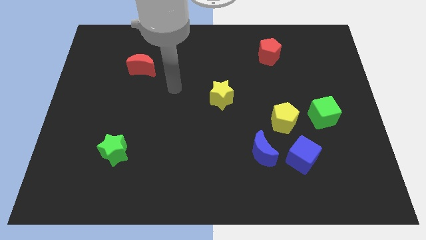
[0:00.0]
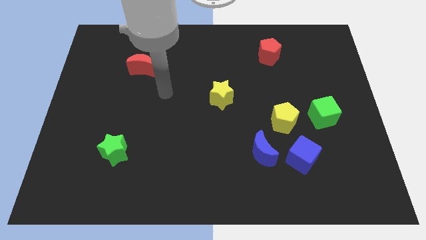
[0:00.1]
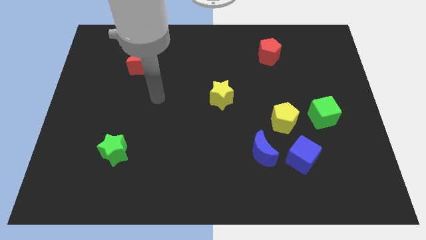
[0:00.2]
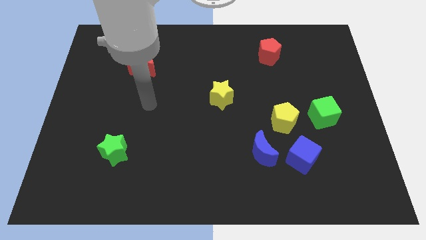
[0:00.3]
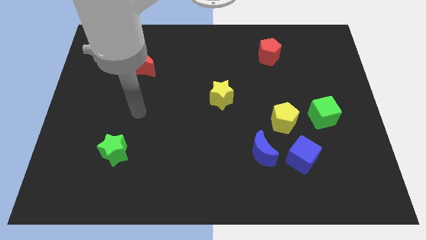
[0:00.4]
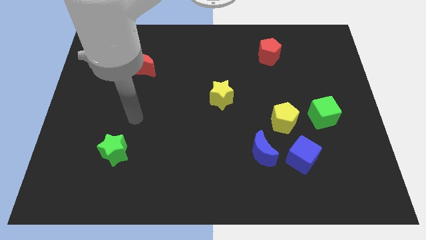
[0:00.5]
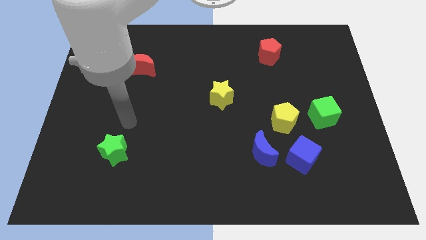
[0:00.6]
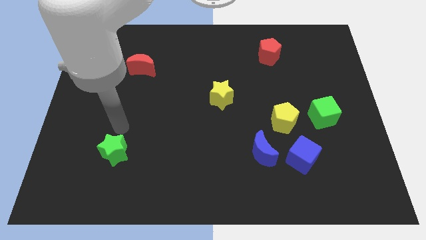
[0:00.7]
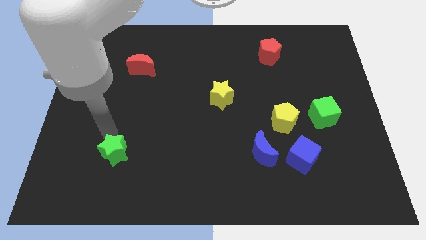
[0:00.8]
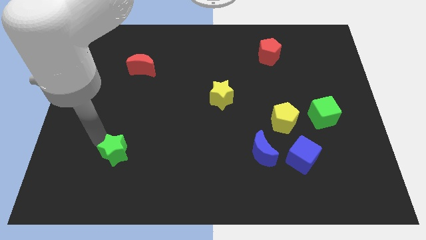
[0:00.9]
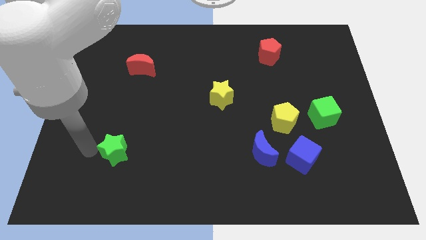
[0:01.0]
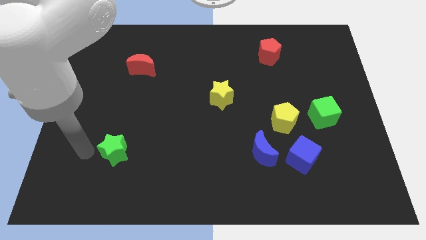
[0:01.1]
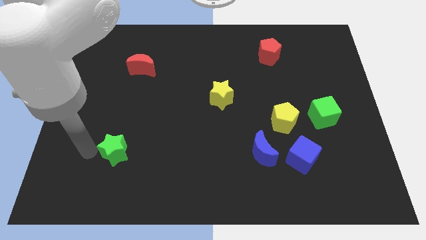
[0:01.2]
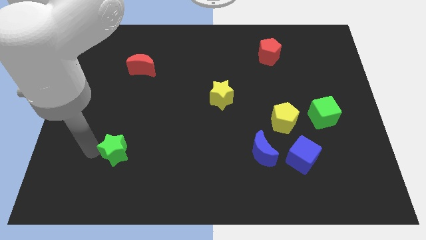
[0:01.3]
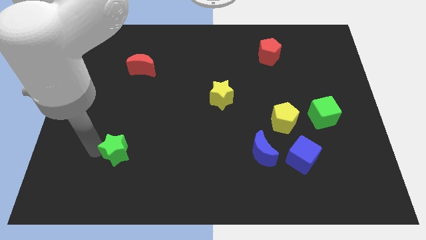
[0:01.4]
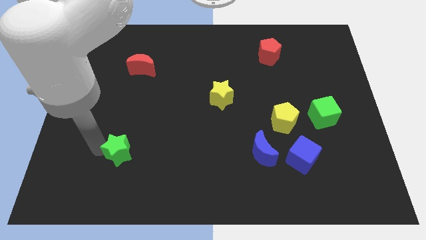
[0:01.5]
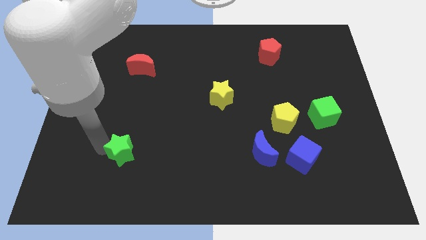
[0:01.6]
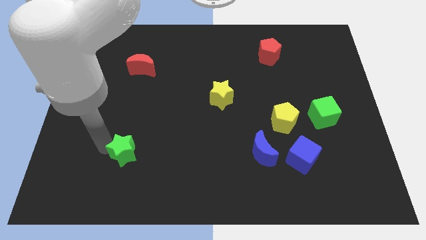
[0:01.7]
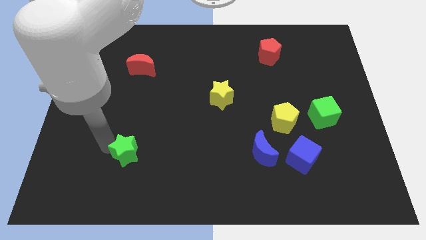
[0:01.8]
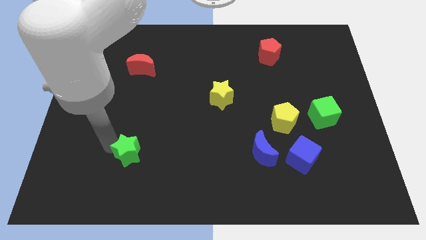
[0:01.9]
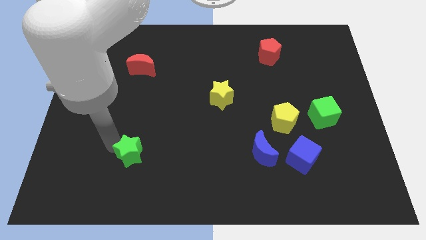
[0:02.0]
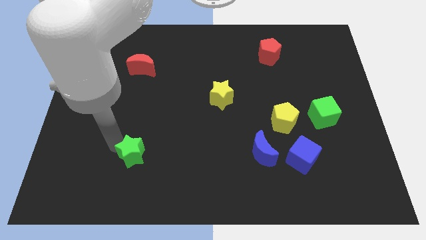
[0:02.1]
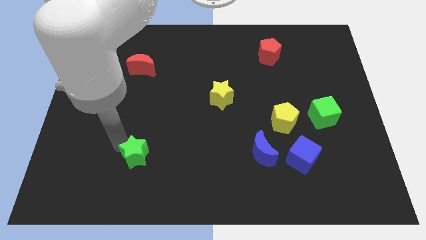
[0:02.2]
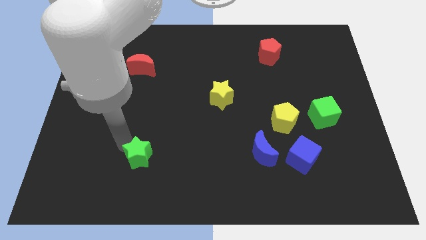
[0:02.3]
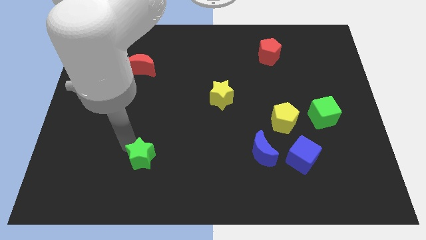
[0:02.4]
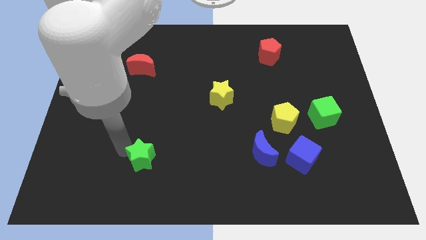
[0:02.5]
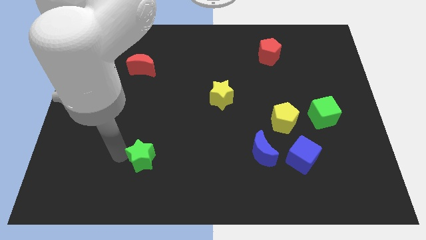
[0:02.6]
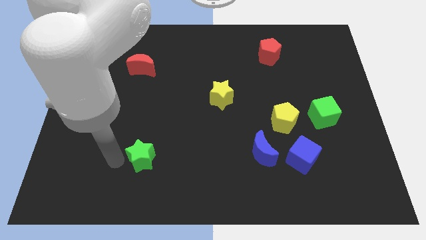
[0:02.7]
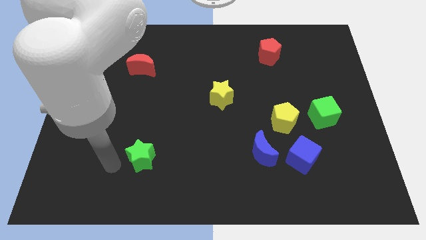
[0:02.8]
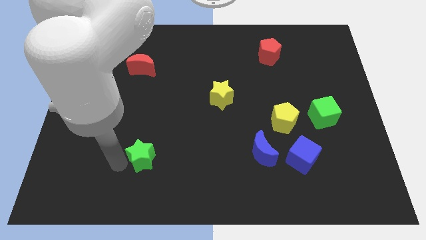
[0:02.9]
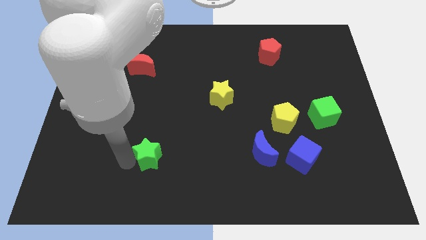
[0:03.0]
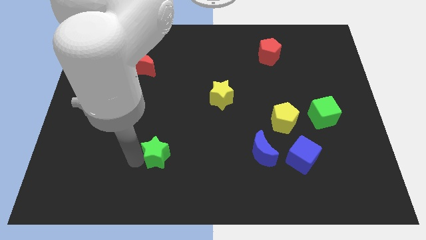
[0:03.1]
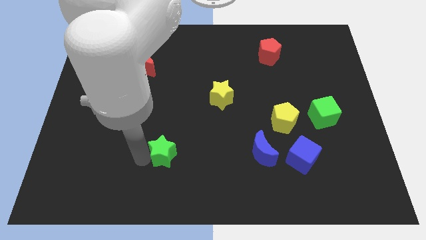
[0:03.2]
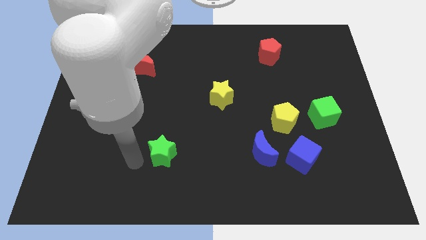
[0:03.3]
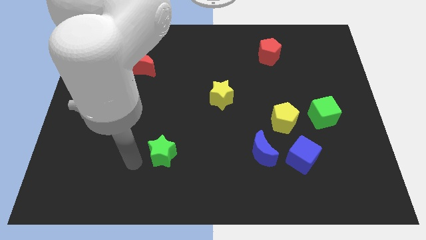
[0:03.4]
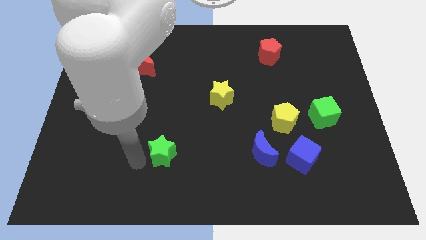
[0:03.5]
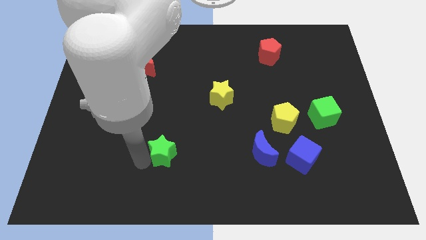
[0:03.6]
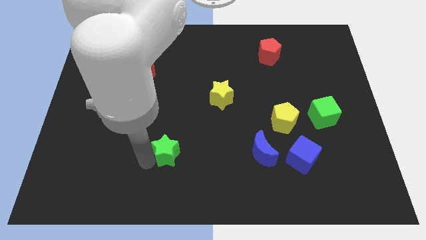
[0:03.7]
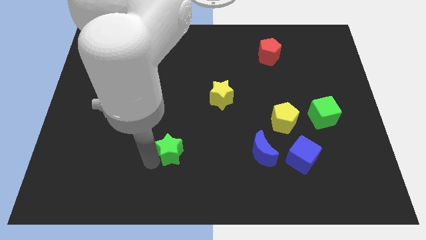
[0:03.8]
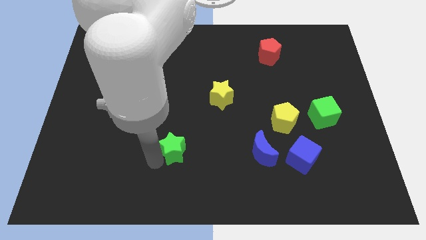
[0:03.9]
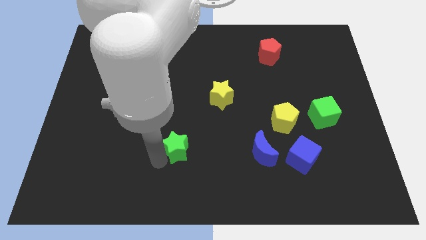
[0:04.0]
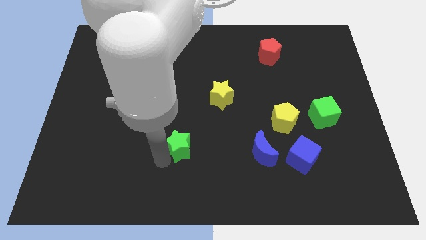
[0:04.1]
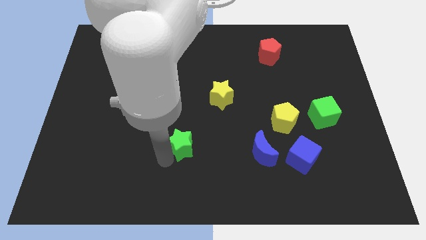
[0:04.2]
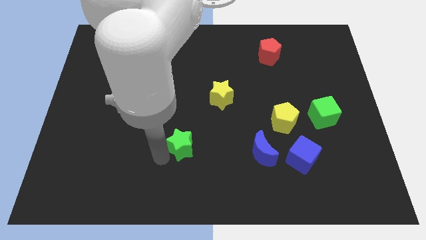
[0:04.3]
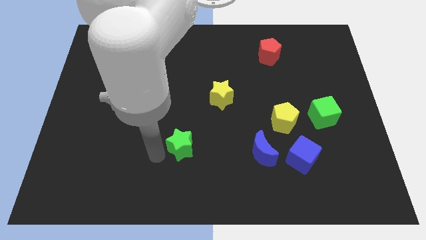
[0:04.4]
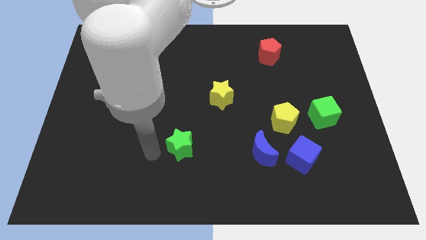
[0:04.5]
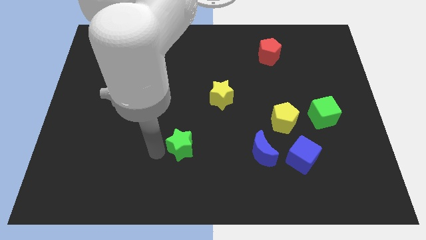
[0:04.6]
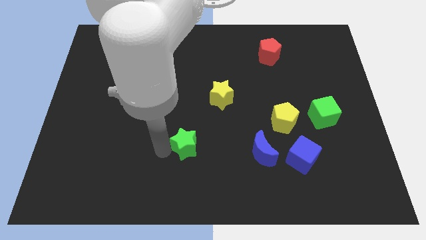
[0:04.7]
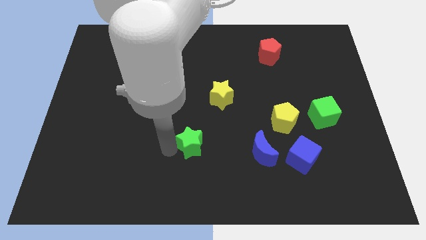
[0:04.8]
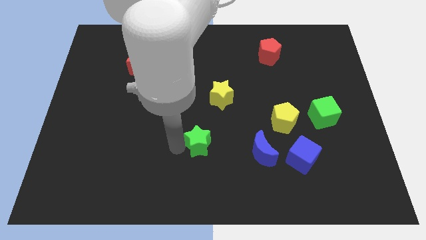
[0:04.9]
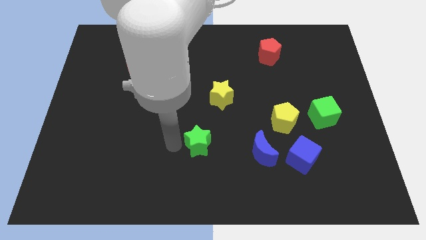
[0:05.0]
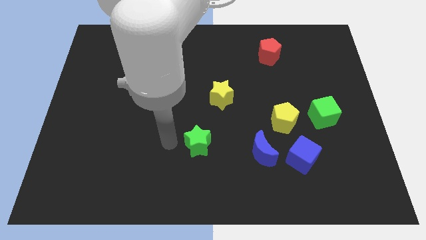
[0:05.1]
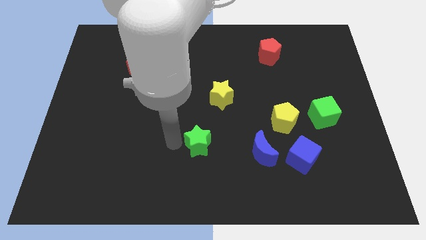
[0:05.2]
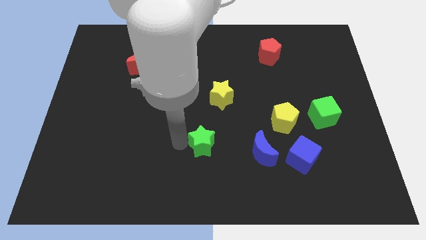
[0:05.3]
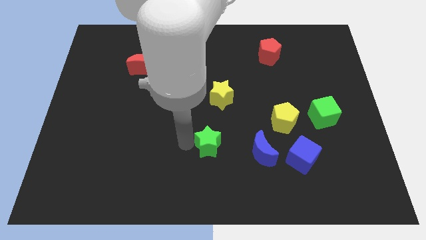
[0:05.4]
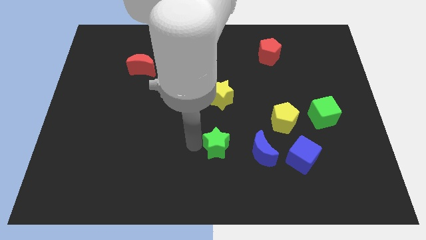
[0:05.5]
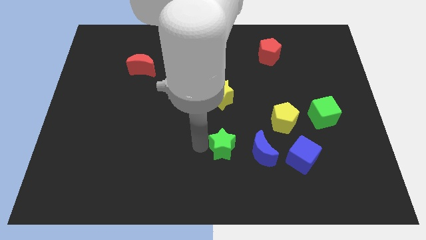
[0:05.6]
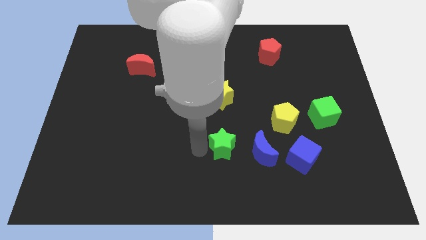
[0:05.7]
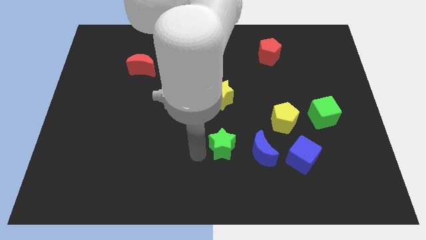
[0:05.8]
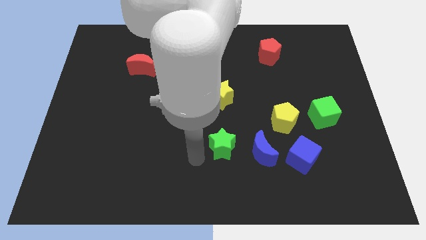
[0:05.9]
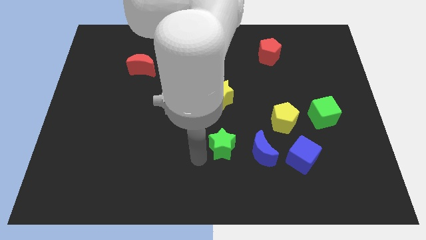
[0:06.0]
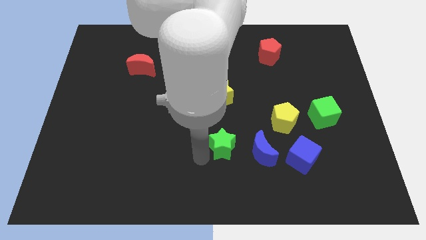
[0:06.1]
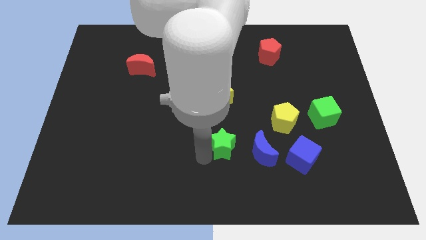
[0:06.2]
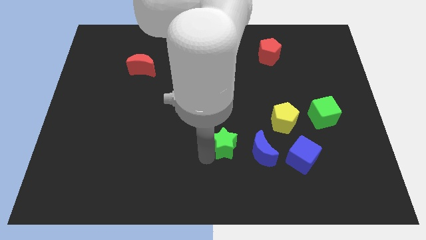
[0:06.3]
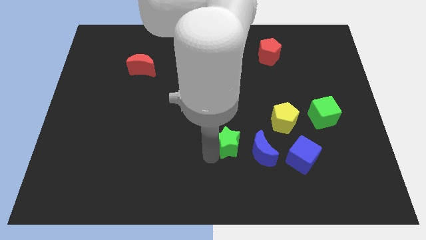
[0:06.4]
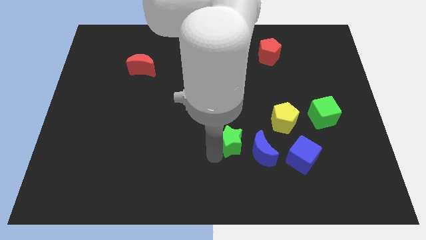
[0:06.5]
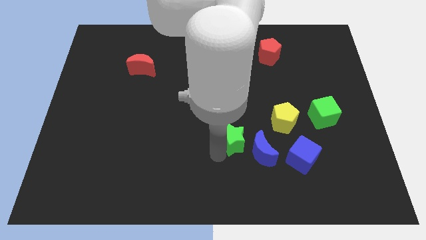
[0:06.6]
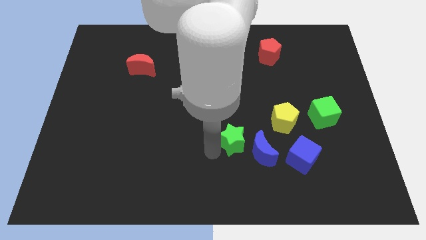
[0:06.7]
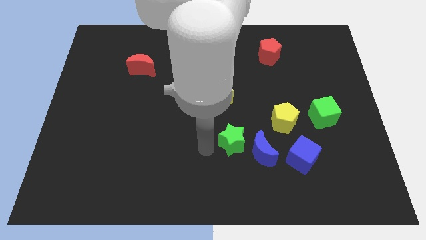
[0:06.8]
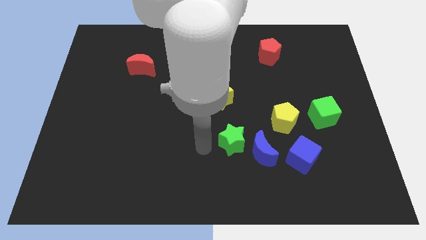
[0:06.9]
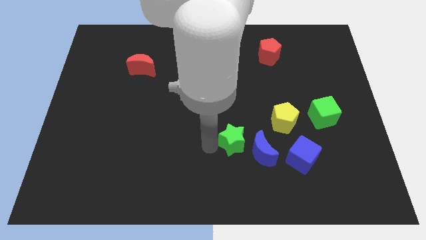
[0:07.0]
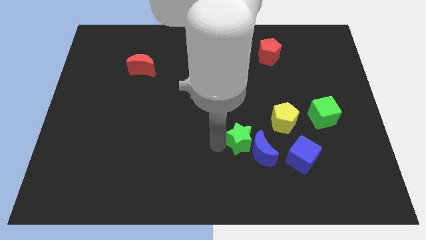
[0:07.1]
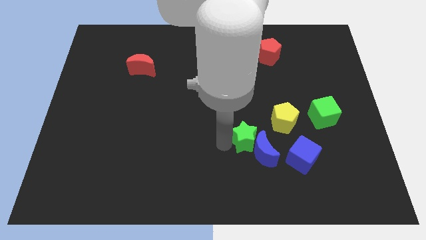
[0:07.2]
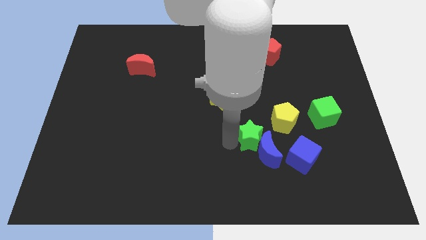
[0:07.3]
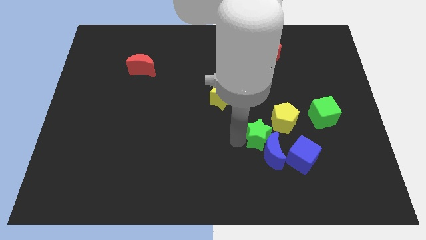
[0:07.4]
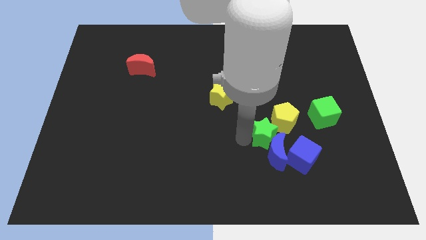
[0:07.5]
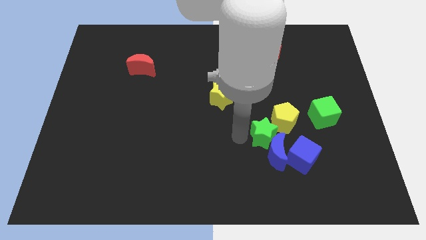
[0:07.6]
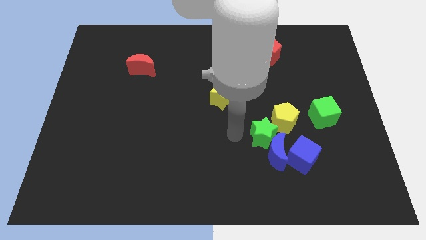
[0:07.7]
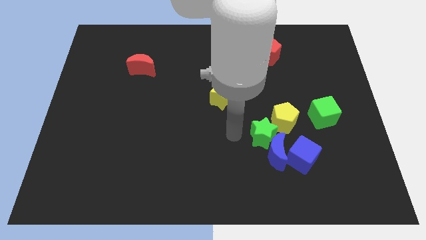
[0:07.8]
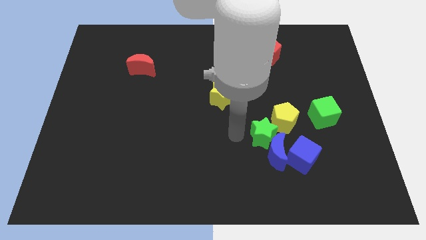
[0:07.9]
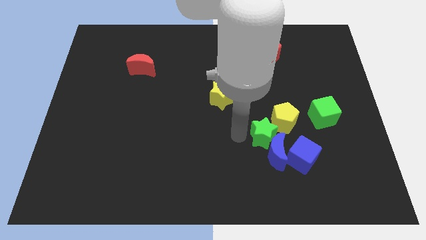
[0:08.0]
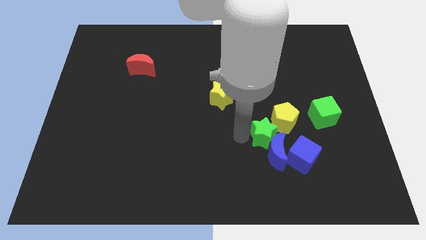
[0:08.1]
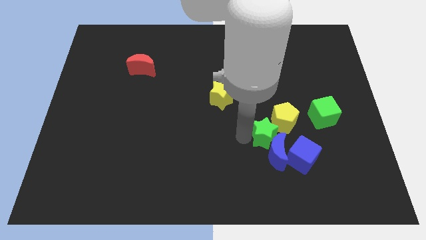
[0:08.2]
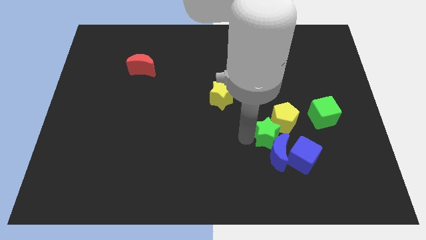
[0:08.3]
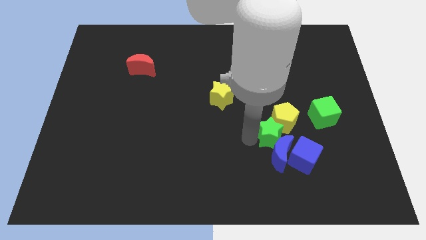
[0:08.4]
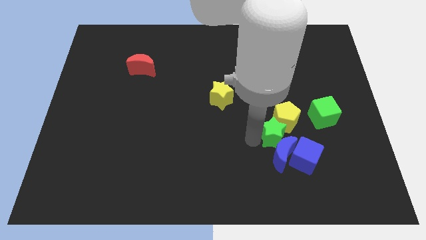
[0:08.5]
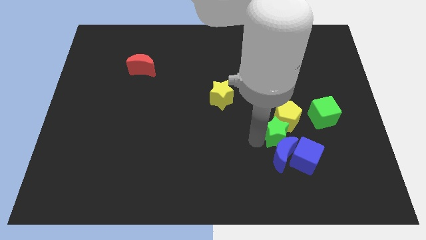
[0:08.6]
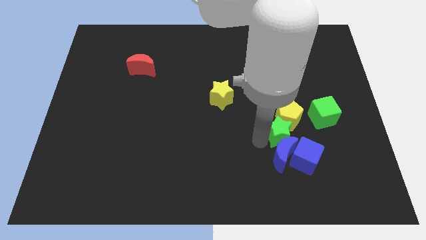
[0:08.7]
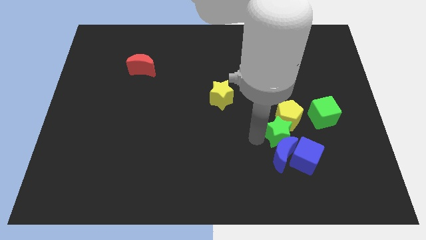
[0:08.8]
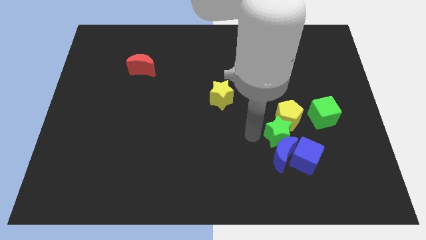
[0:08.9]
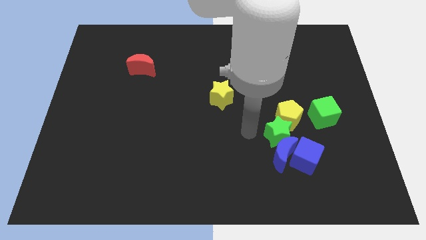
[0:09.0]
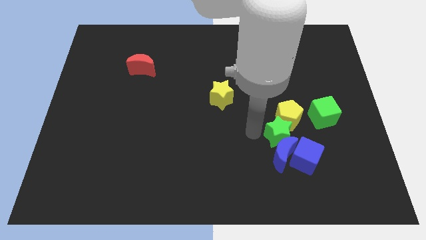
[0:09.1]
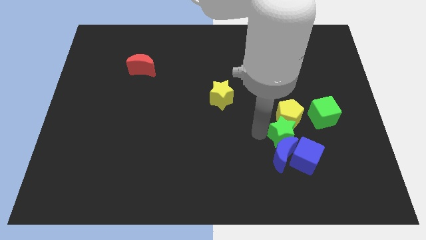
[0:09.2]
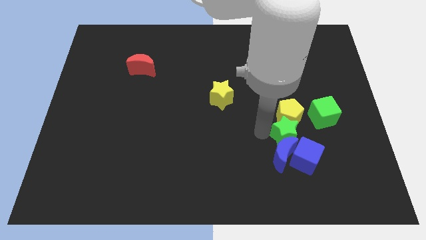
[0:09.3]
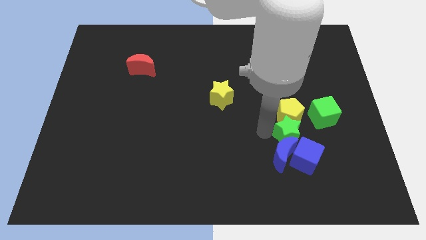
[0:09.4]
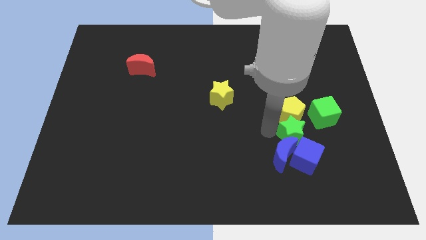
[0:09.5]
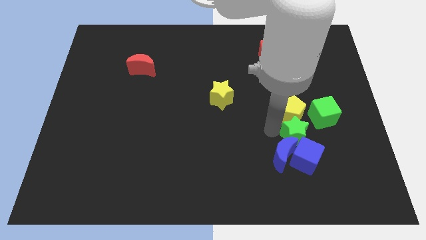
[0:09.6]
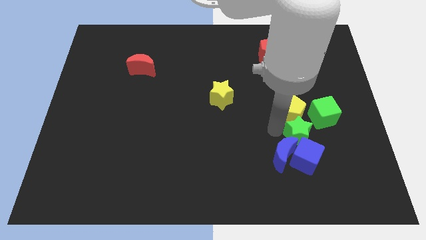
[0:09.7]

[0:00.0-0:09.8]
put the green star to the top right side of the blue cube
